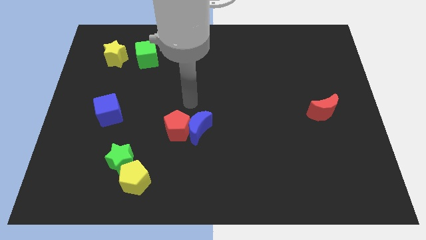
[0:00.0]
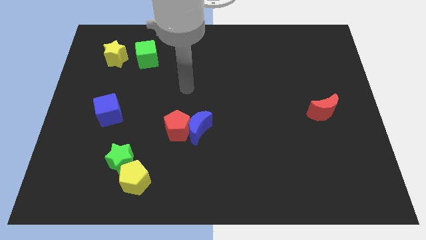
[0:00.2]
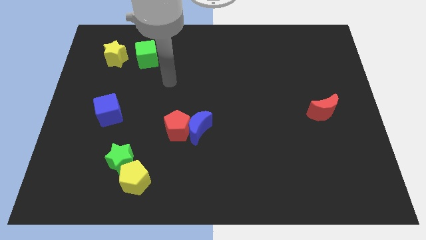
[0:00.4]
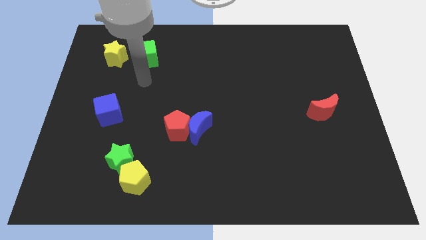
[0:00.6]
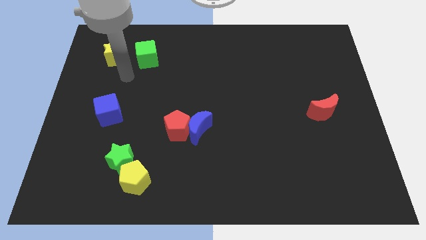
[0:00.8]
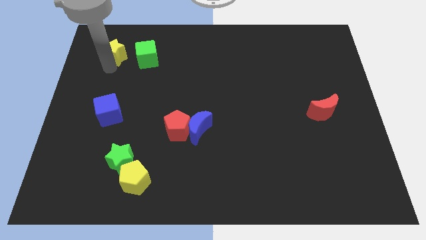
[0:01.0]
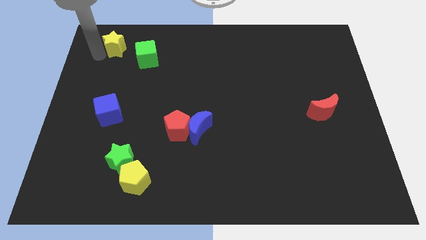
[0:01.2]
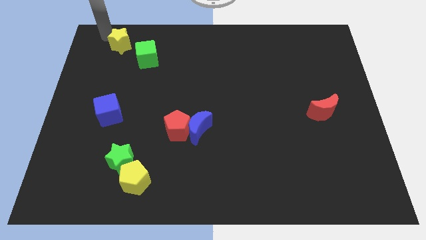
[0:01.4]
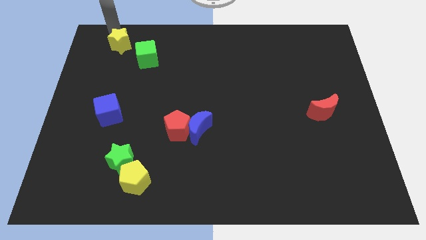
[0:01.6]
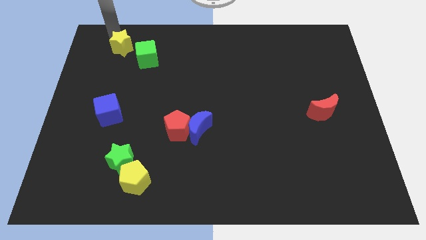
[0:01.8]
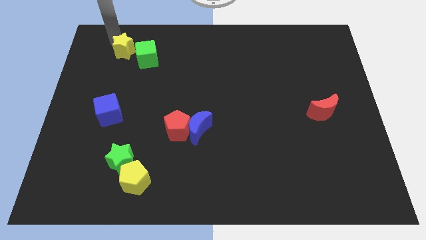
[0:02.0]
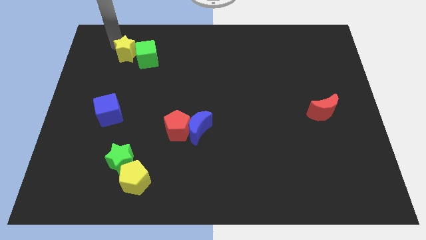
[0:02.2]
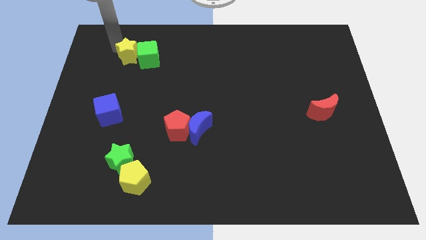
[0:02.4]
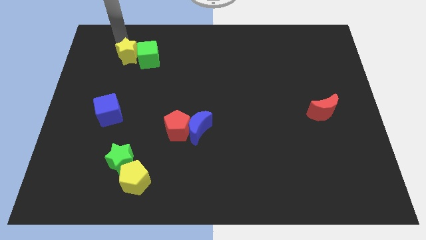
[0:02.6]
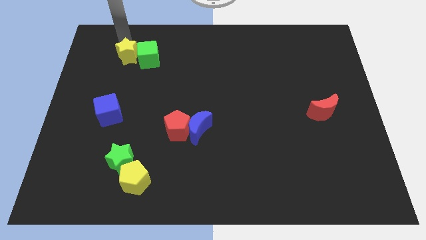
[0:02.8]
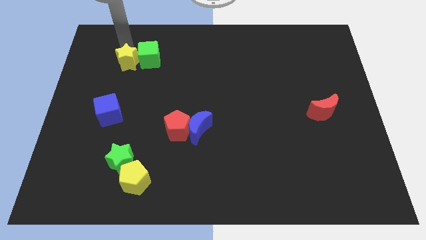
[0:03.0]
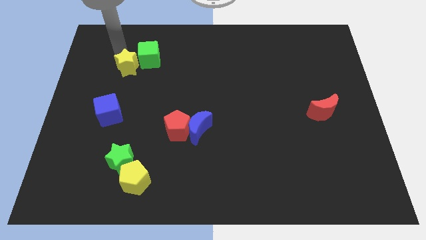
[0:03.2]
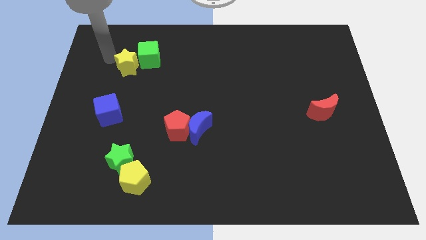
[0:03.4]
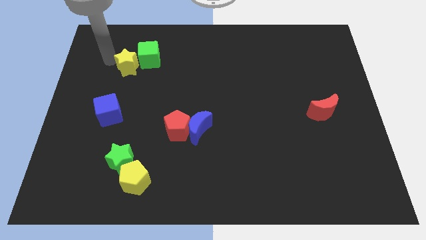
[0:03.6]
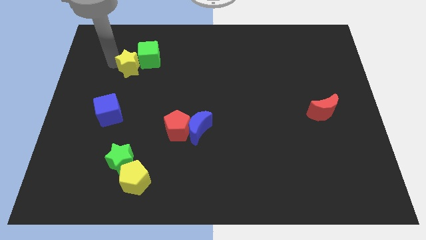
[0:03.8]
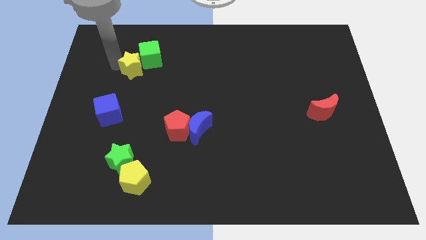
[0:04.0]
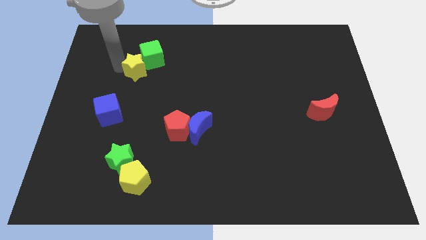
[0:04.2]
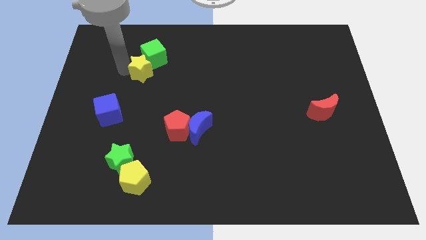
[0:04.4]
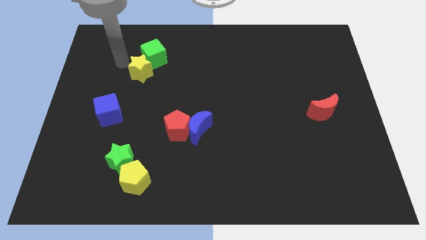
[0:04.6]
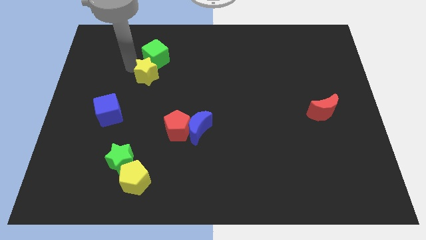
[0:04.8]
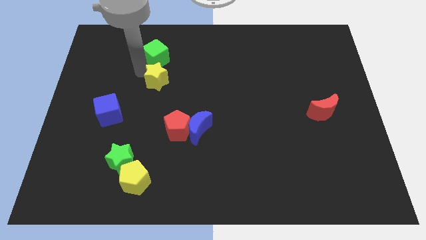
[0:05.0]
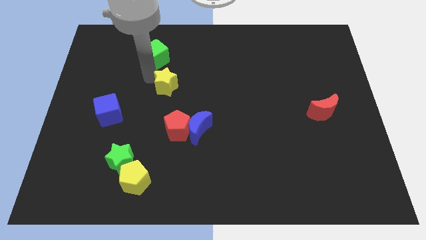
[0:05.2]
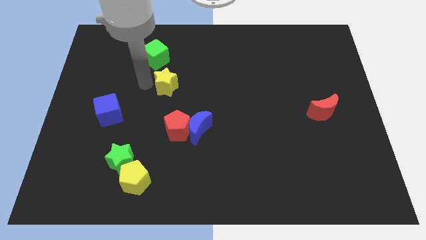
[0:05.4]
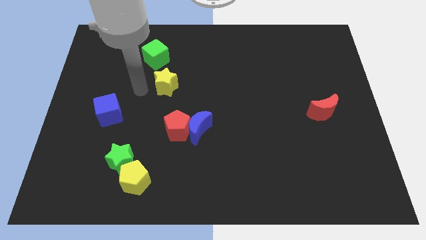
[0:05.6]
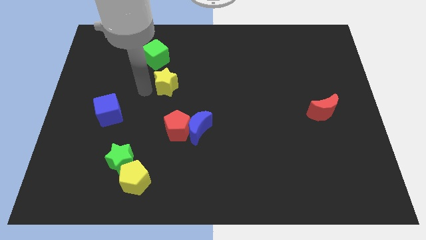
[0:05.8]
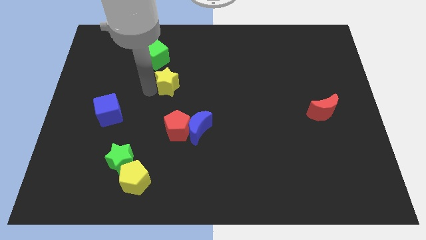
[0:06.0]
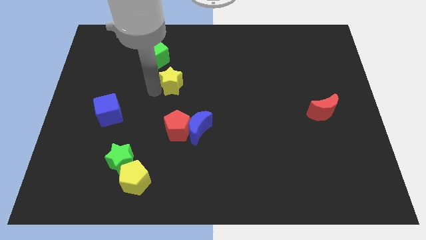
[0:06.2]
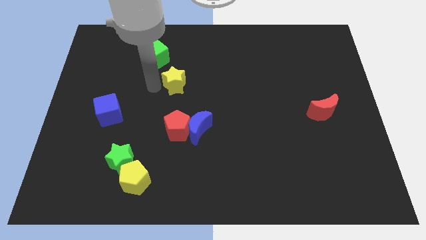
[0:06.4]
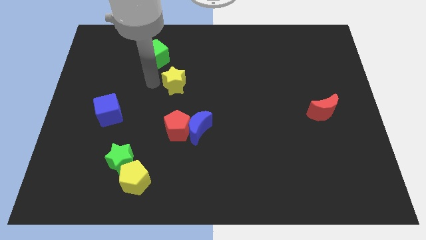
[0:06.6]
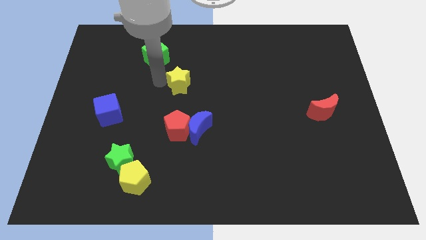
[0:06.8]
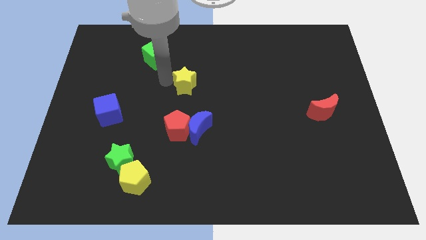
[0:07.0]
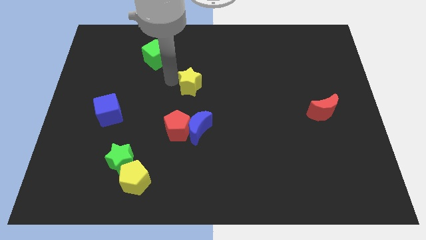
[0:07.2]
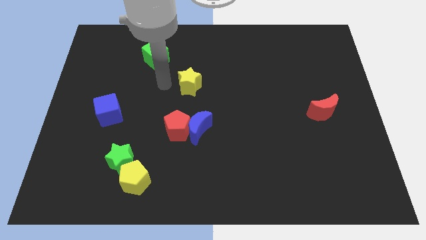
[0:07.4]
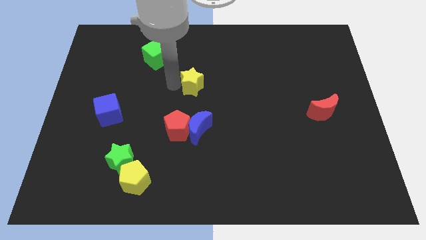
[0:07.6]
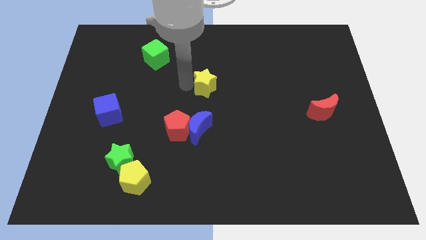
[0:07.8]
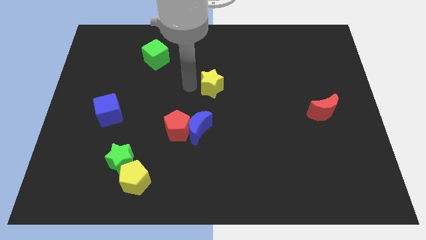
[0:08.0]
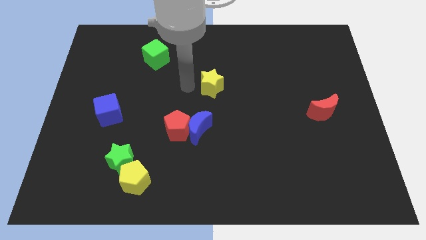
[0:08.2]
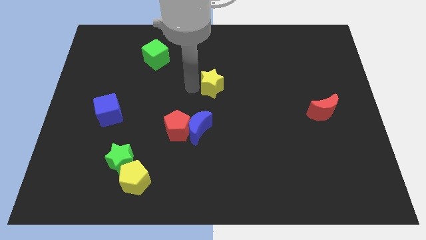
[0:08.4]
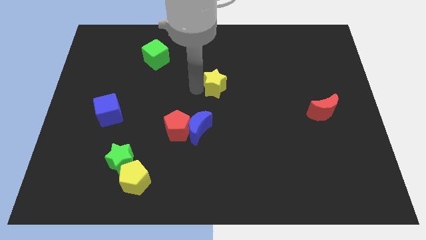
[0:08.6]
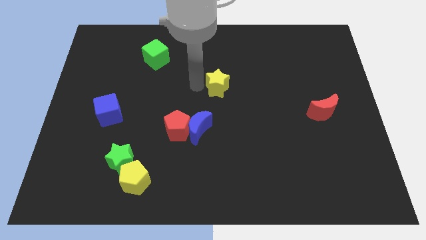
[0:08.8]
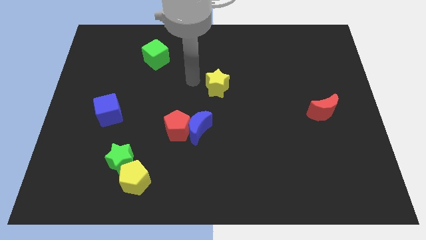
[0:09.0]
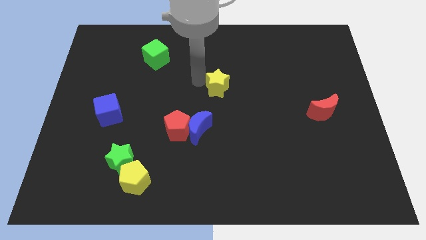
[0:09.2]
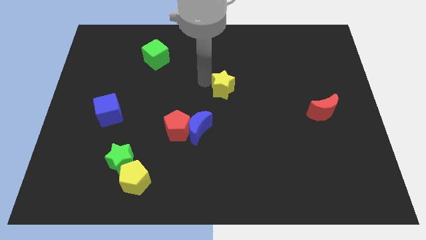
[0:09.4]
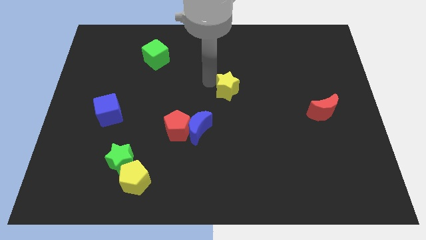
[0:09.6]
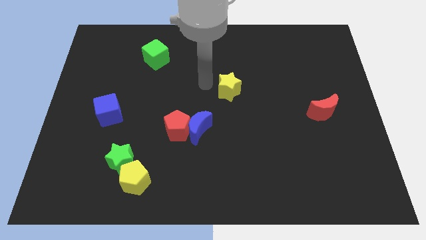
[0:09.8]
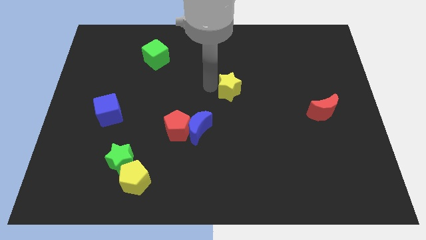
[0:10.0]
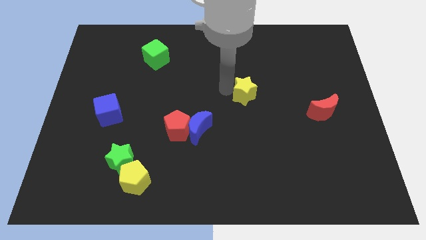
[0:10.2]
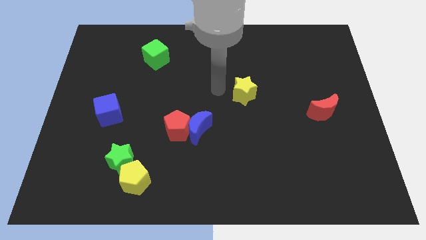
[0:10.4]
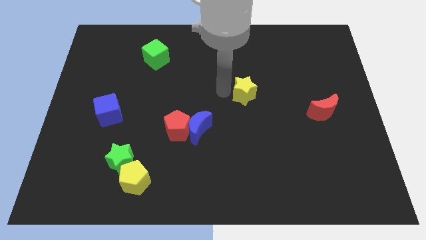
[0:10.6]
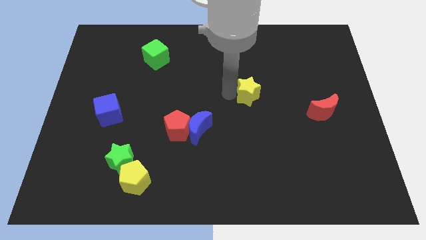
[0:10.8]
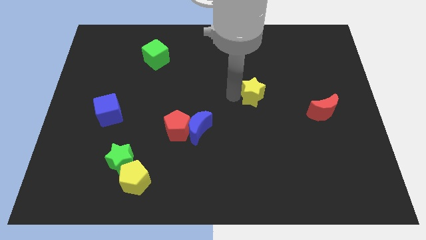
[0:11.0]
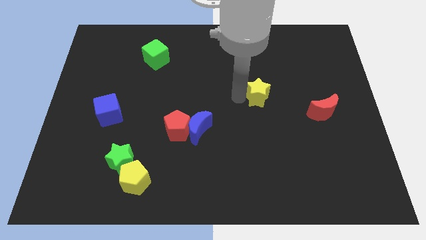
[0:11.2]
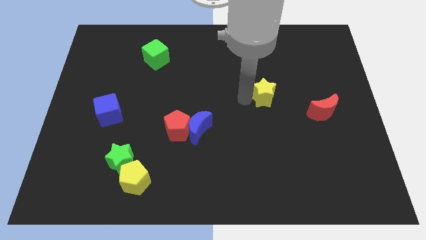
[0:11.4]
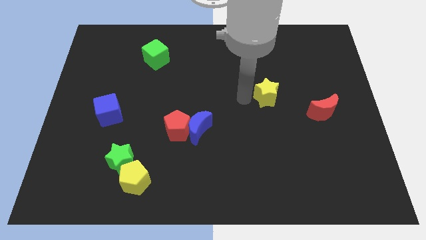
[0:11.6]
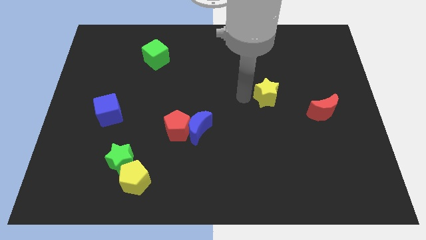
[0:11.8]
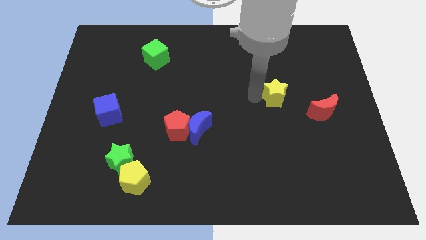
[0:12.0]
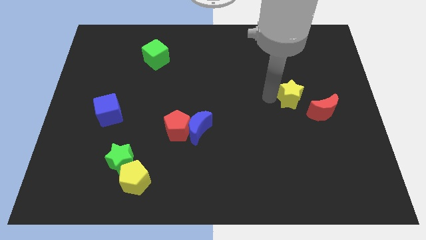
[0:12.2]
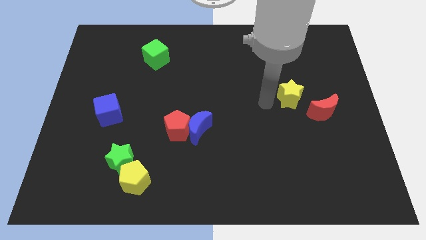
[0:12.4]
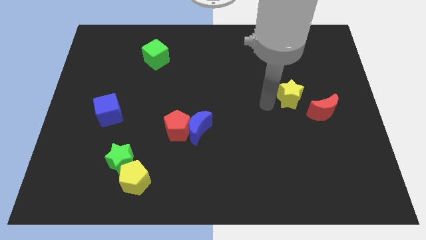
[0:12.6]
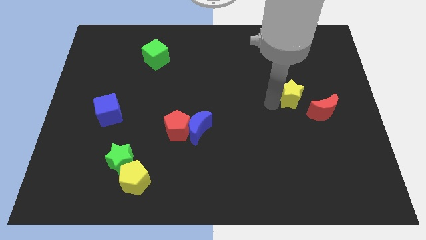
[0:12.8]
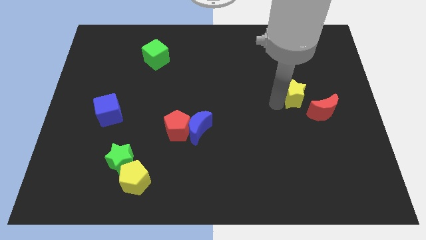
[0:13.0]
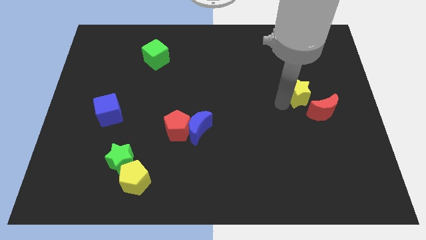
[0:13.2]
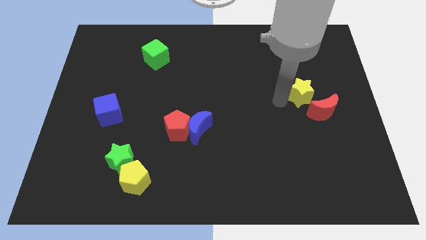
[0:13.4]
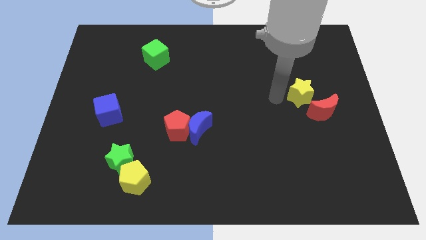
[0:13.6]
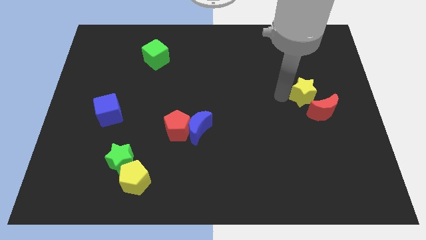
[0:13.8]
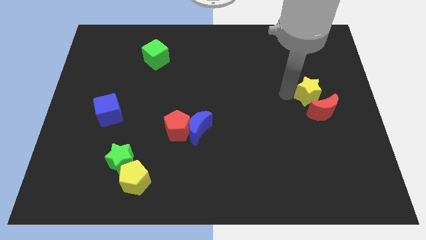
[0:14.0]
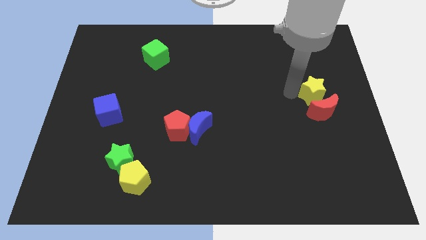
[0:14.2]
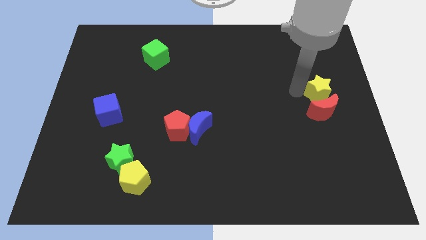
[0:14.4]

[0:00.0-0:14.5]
move the yellow star to the center right

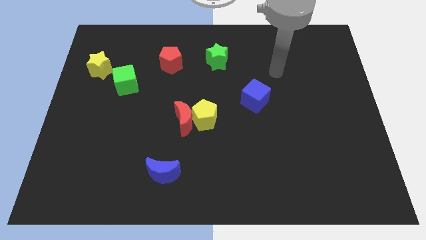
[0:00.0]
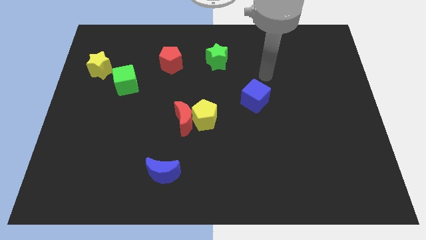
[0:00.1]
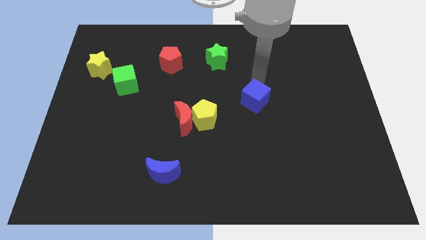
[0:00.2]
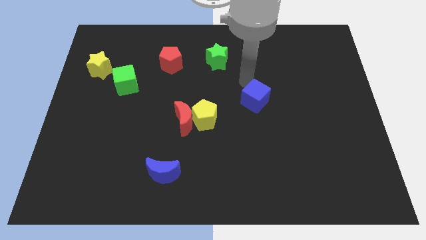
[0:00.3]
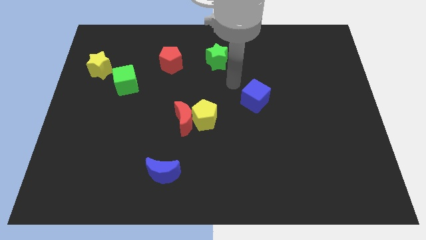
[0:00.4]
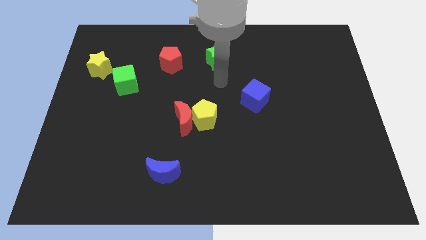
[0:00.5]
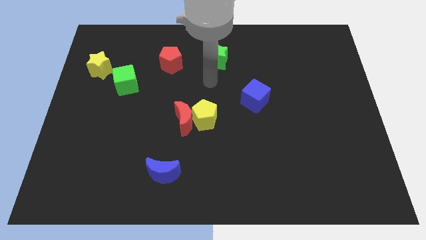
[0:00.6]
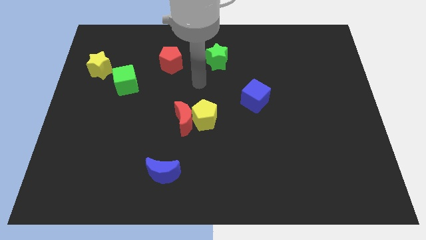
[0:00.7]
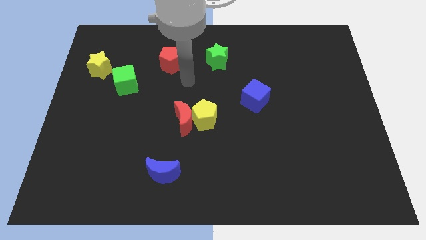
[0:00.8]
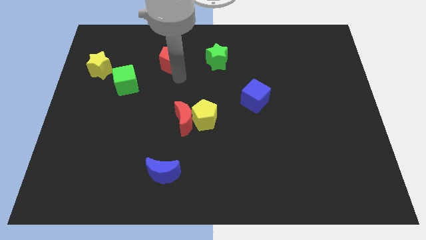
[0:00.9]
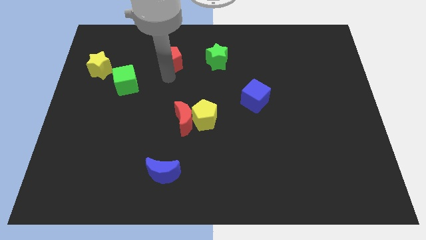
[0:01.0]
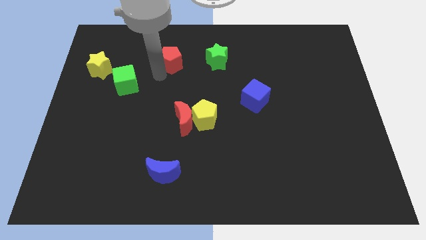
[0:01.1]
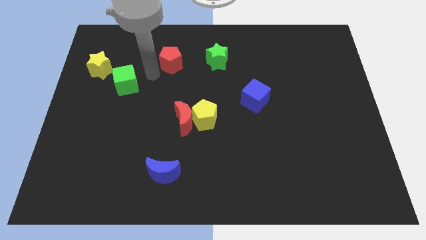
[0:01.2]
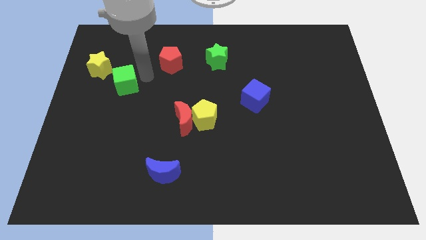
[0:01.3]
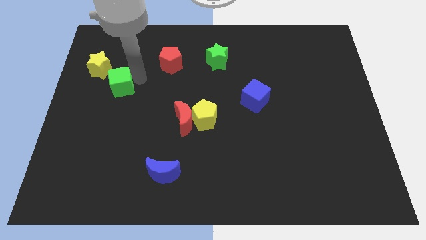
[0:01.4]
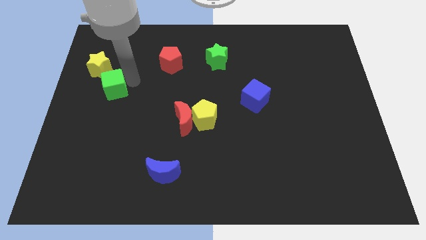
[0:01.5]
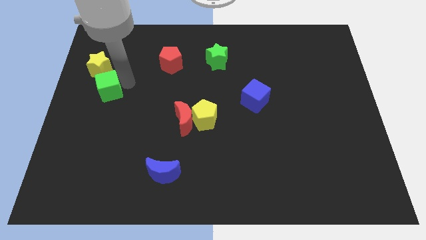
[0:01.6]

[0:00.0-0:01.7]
slide the green cube to the left side
